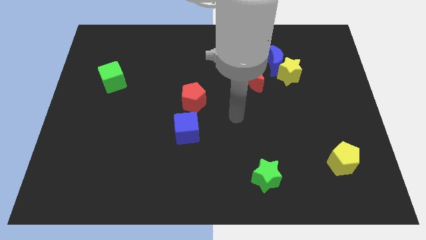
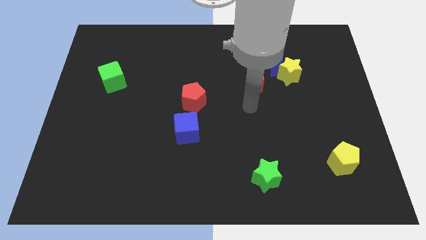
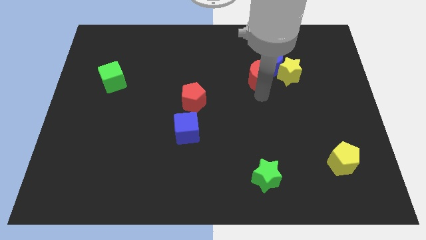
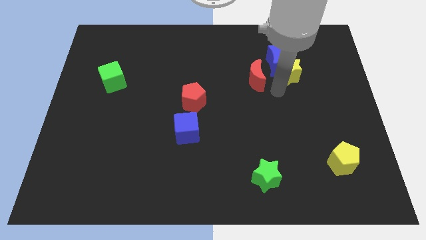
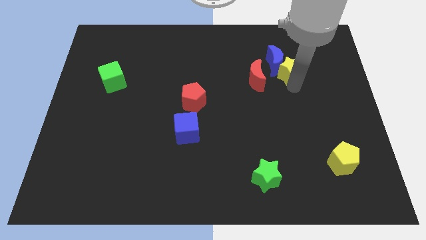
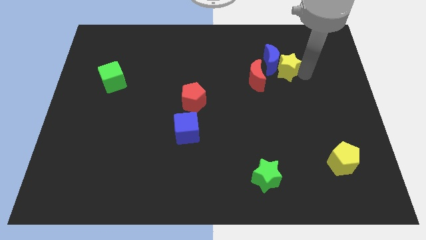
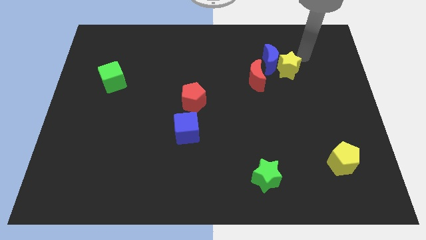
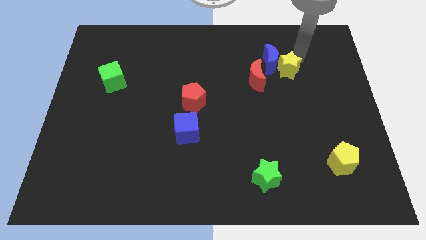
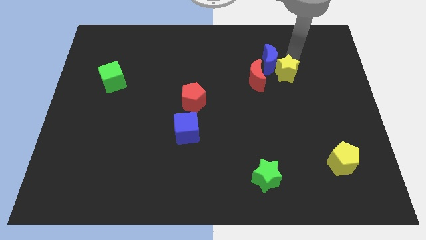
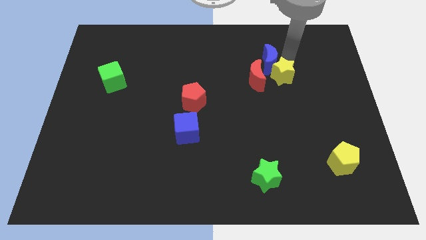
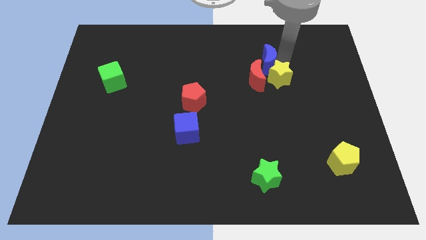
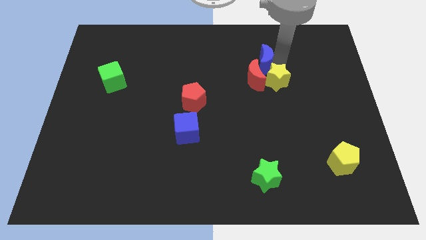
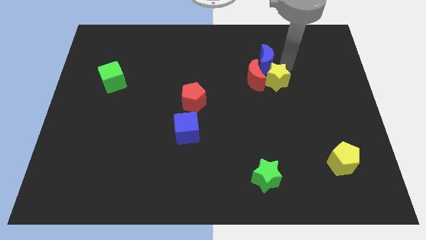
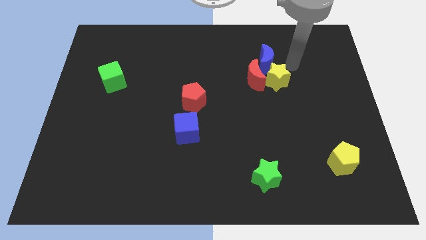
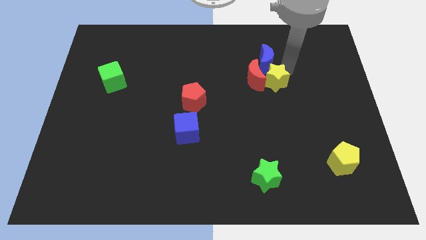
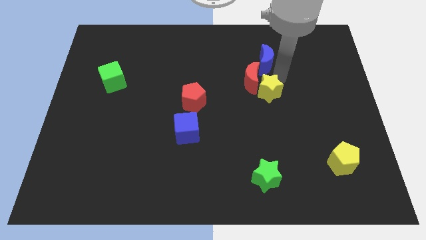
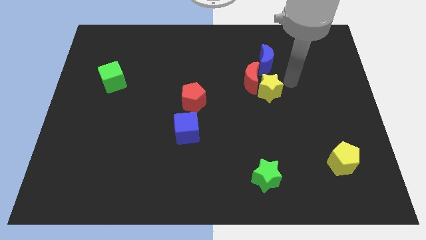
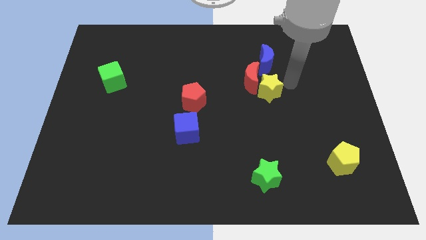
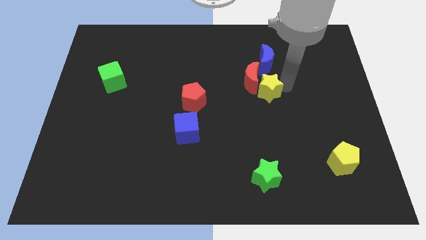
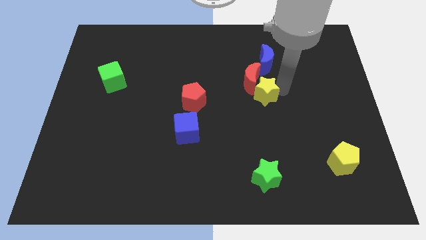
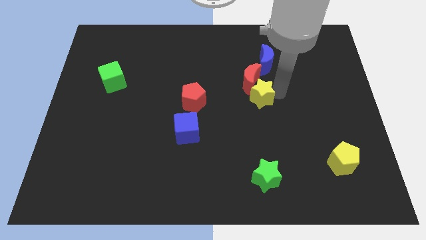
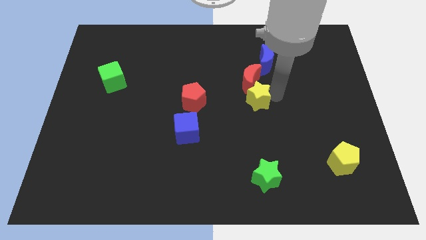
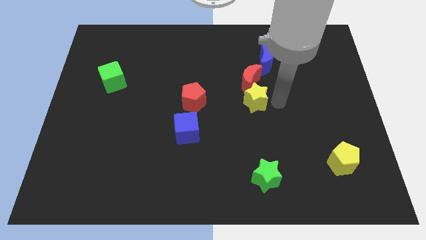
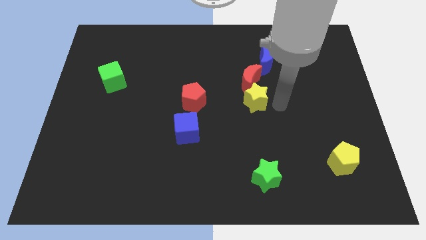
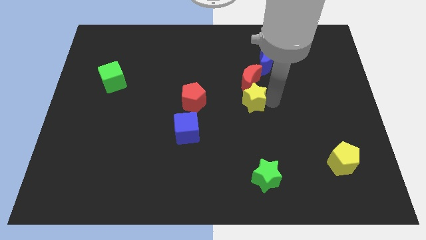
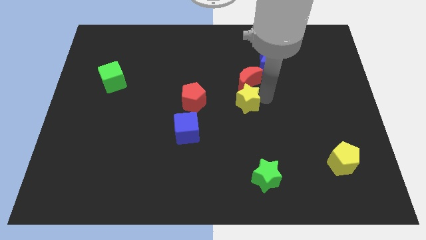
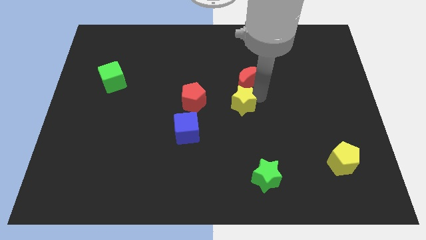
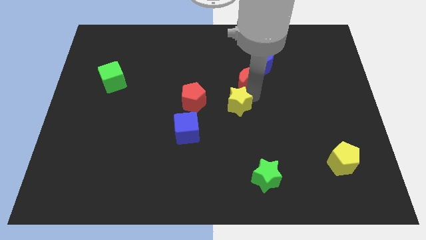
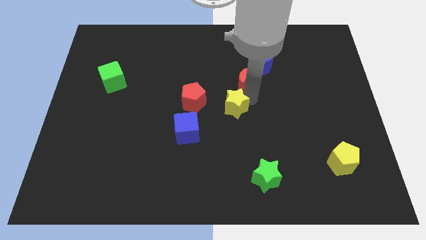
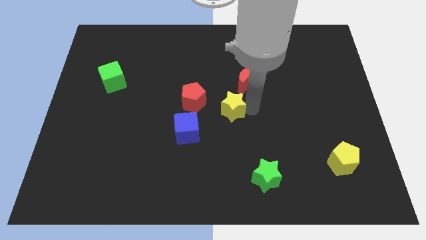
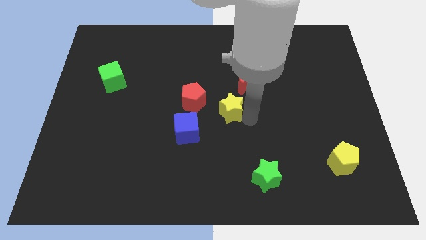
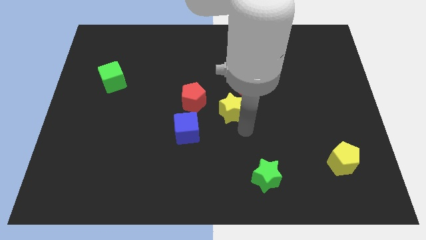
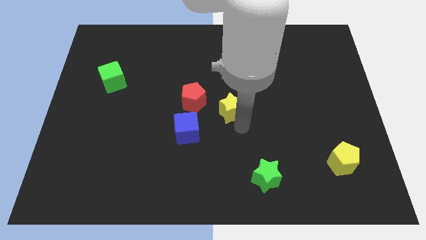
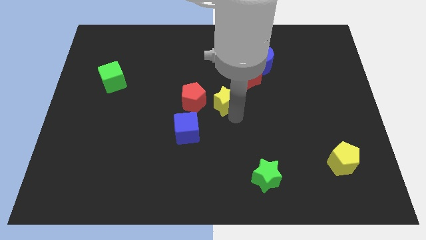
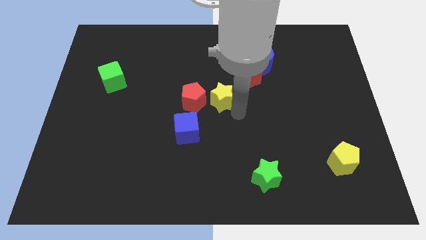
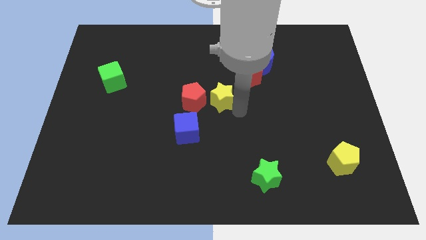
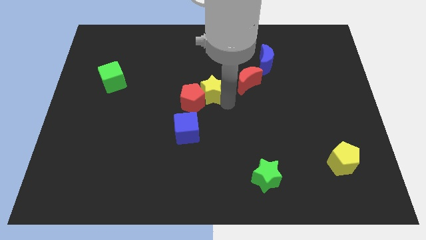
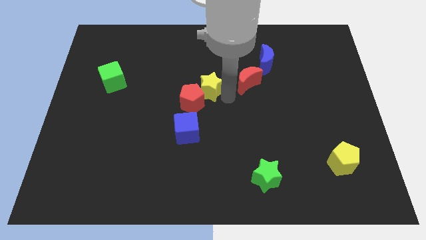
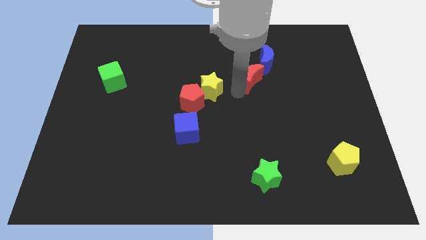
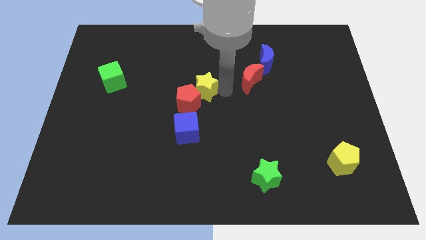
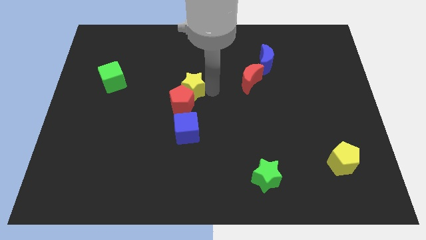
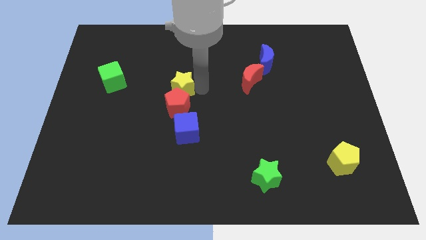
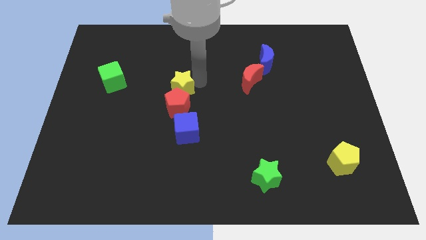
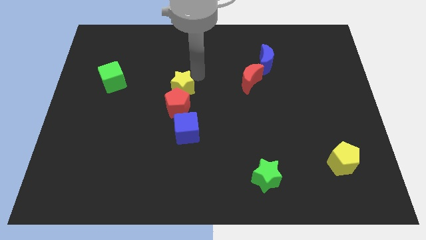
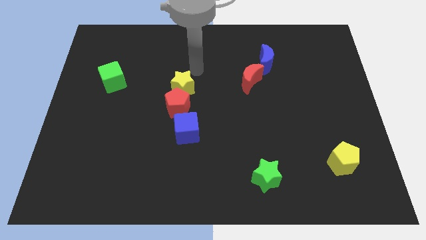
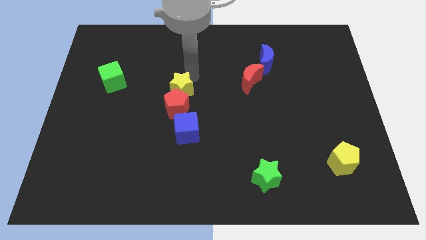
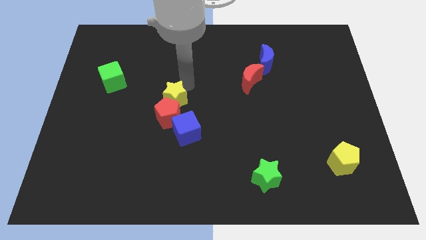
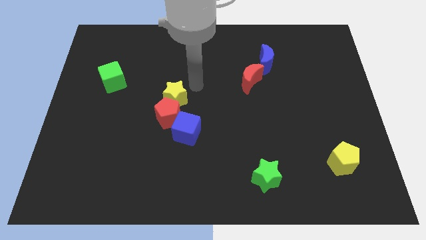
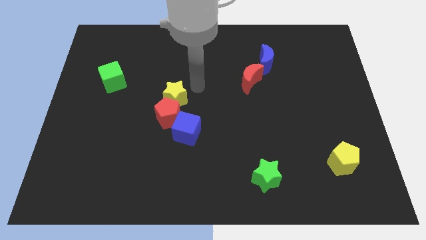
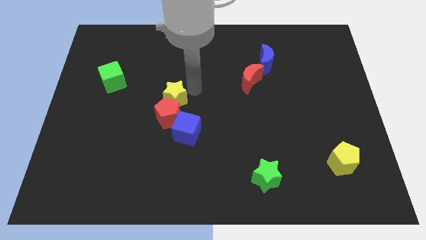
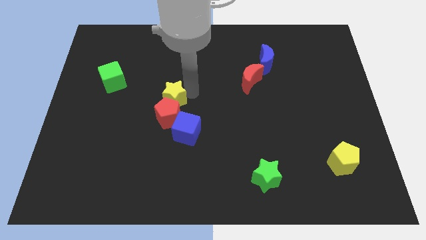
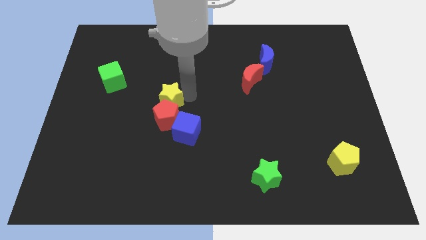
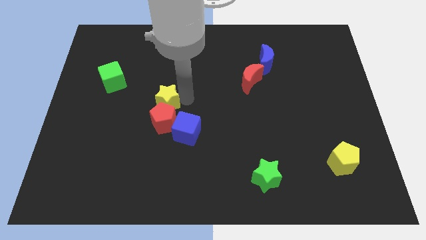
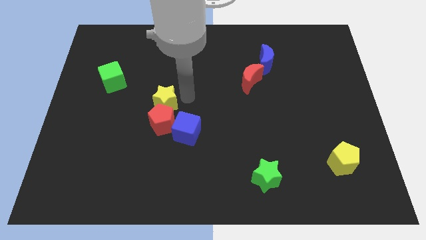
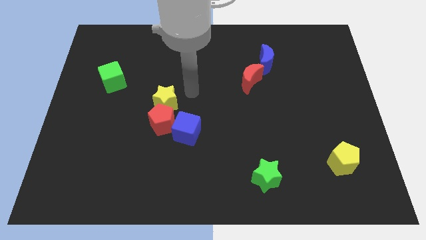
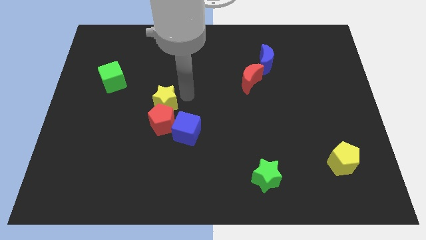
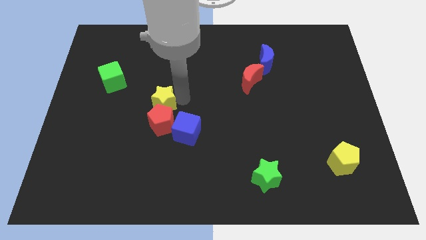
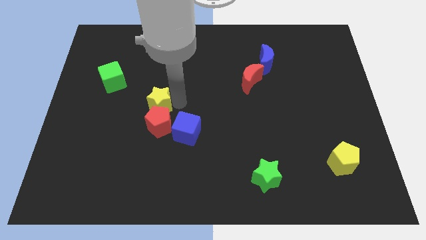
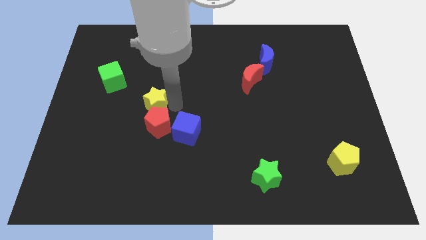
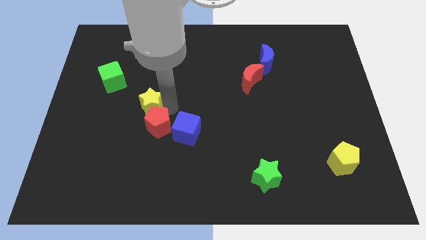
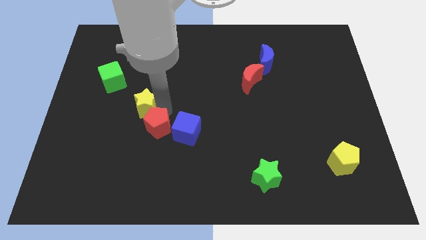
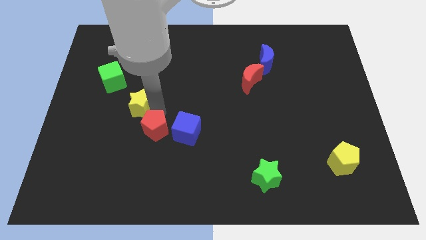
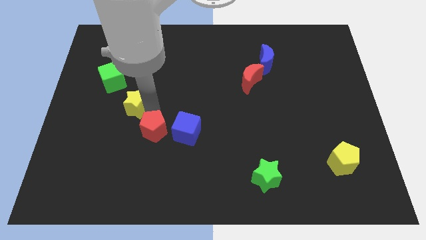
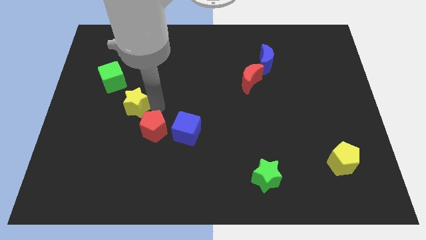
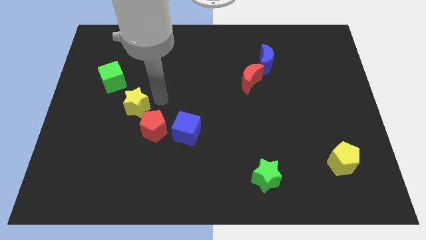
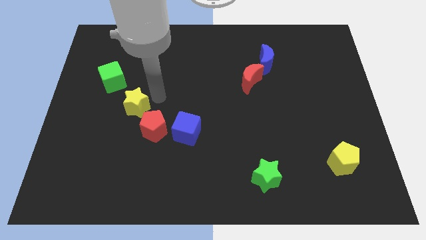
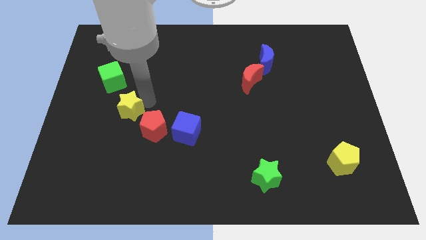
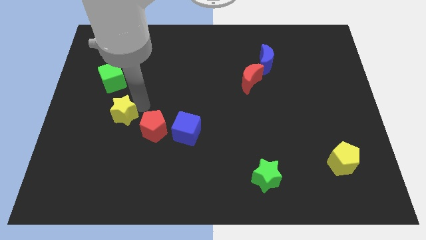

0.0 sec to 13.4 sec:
push the yellow star below the green cube

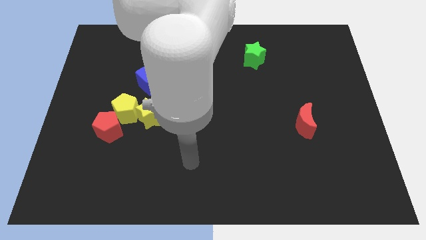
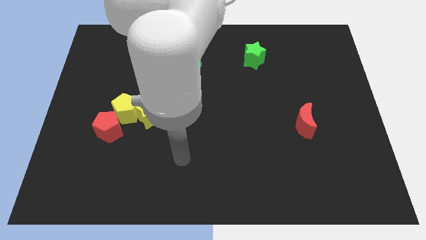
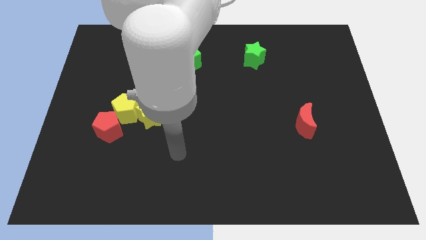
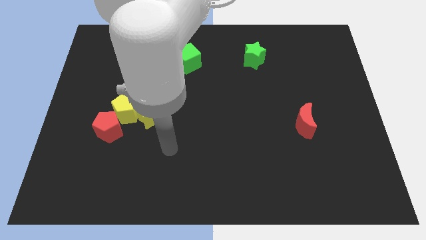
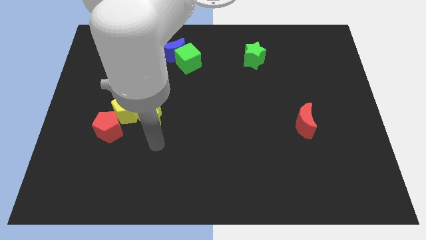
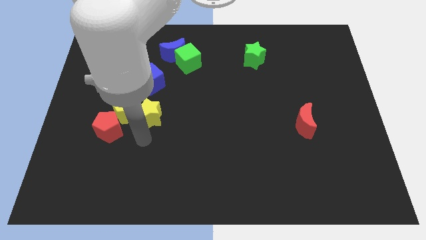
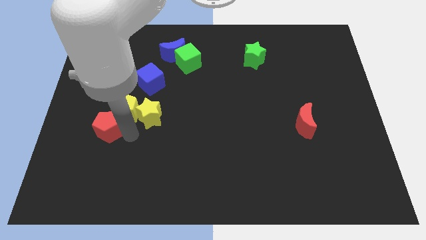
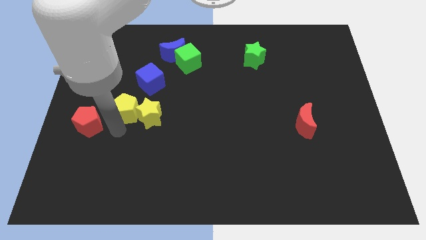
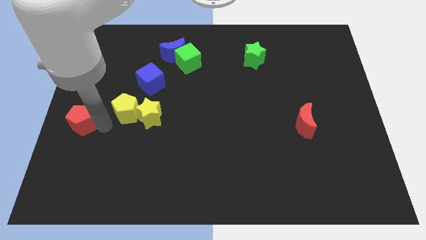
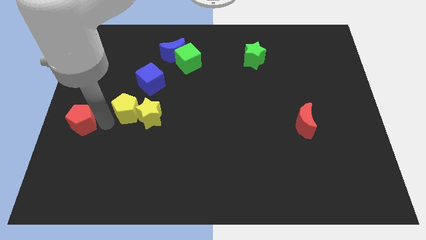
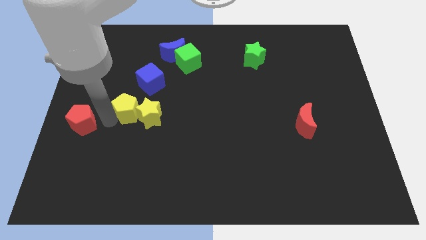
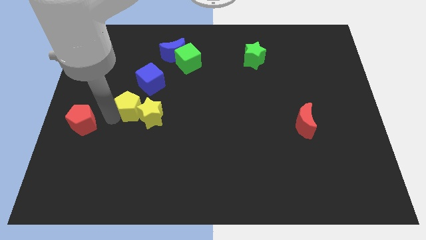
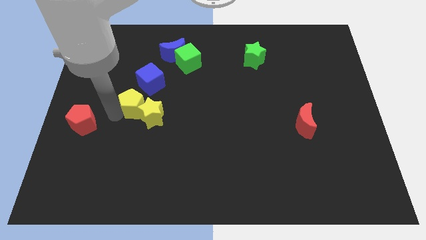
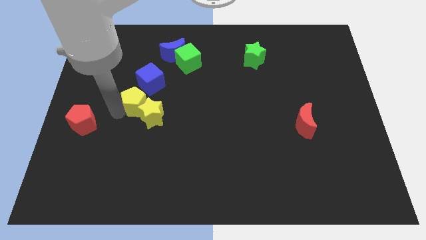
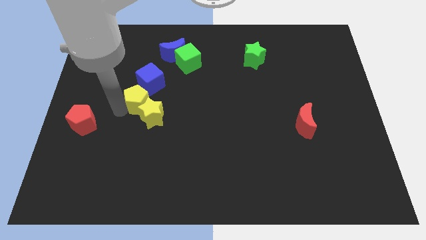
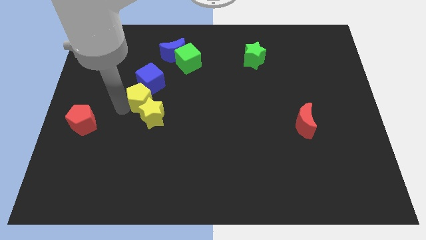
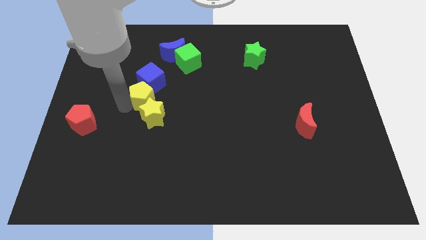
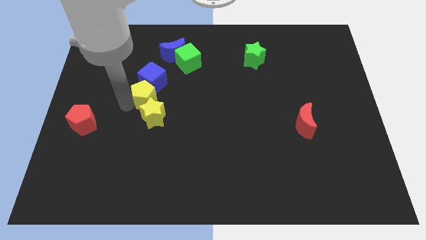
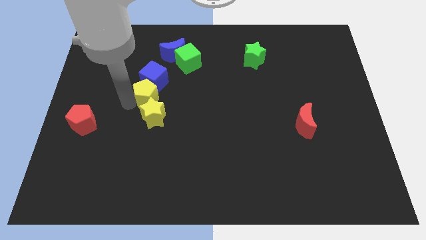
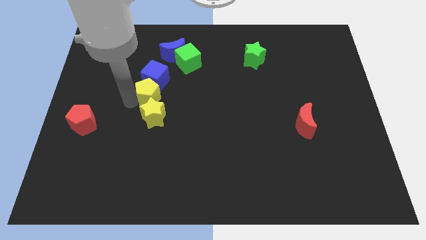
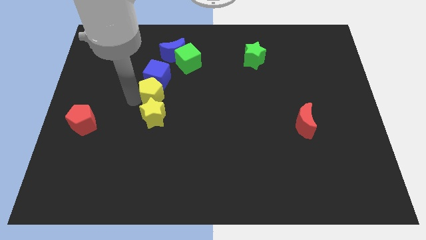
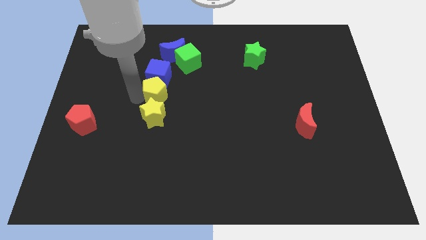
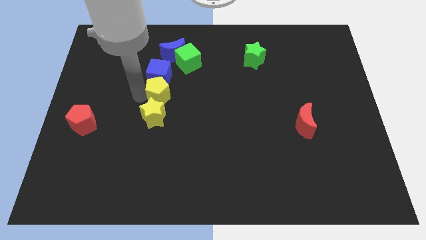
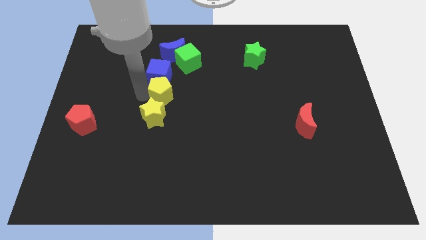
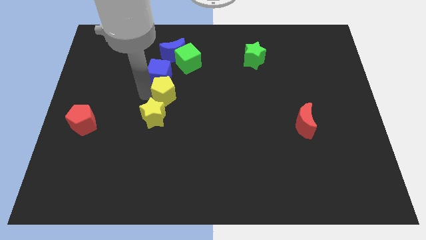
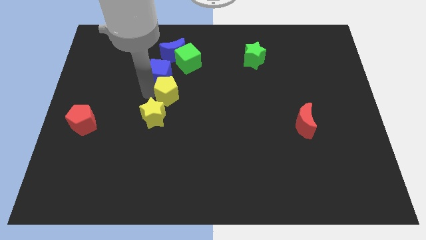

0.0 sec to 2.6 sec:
put the yellow pentagon to the bottom side of the green cube
